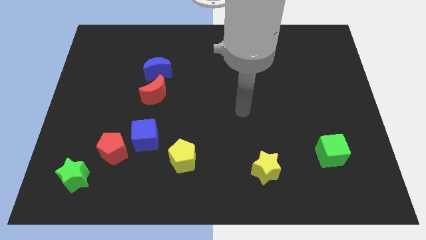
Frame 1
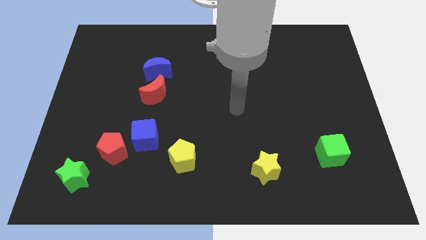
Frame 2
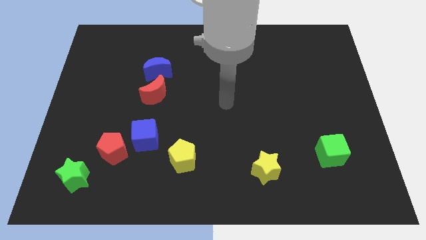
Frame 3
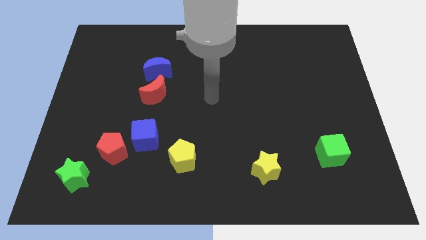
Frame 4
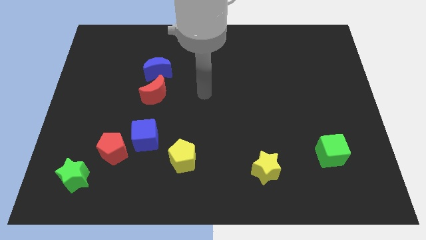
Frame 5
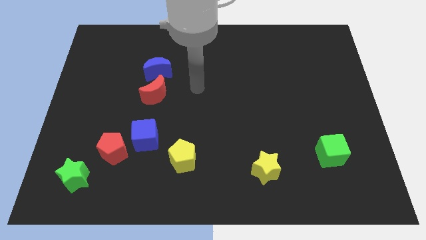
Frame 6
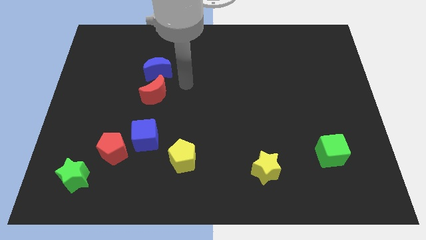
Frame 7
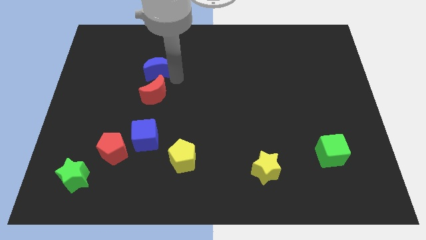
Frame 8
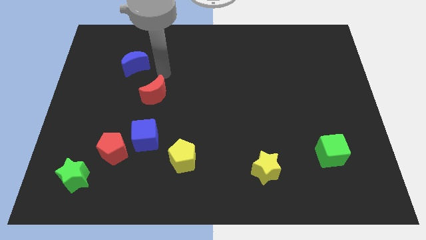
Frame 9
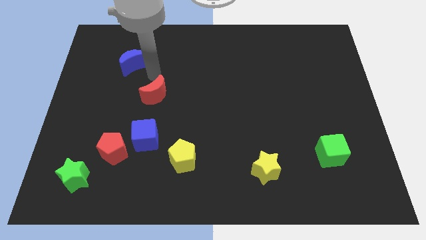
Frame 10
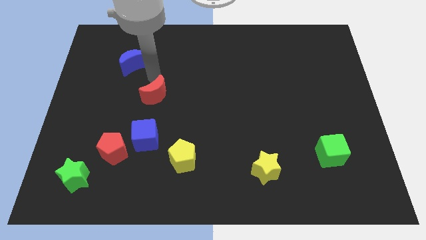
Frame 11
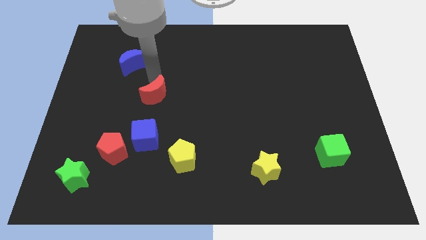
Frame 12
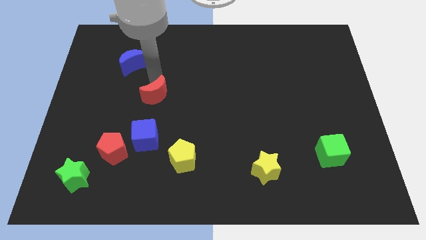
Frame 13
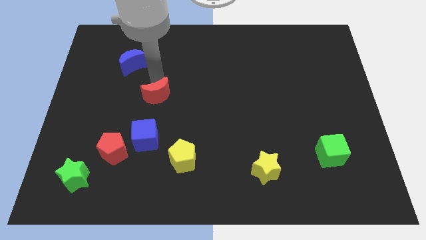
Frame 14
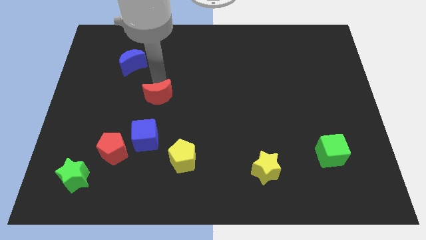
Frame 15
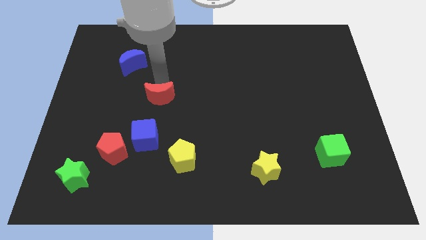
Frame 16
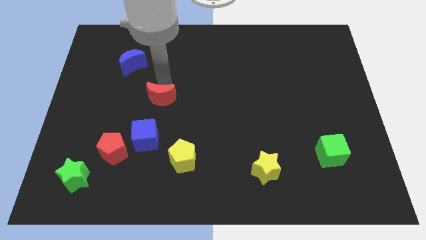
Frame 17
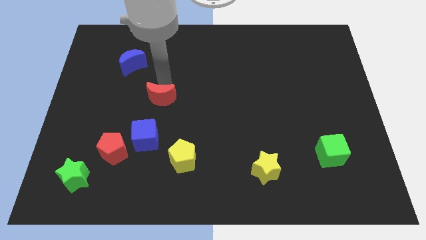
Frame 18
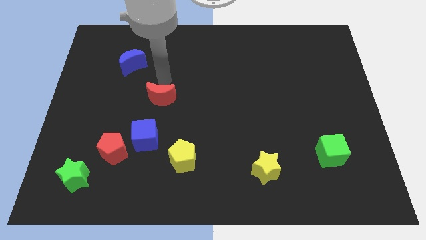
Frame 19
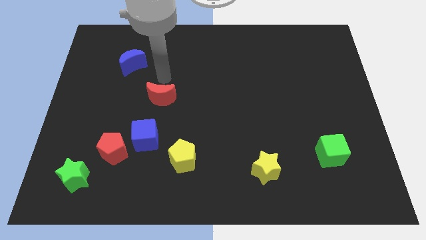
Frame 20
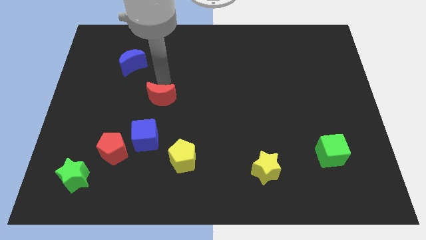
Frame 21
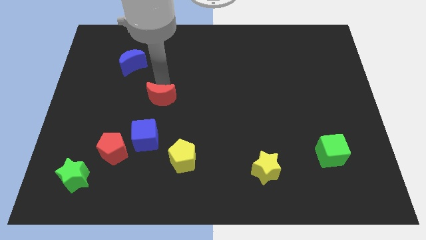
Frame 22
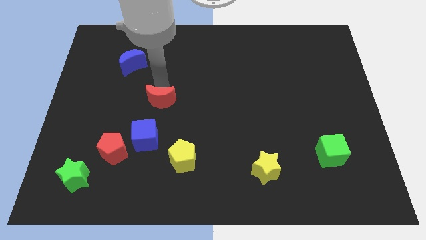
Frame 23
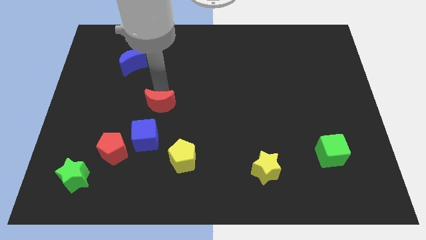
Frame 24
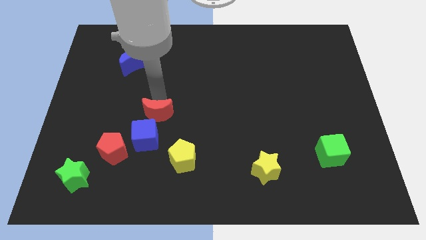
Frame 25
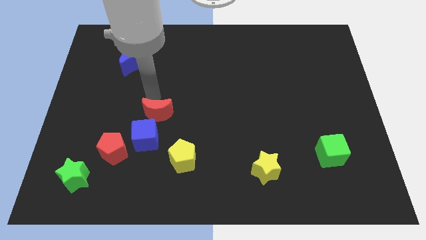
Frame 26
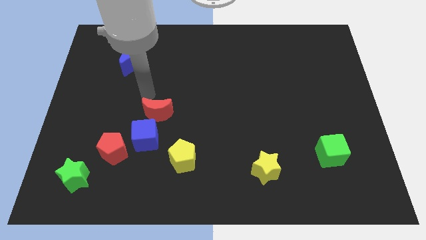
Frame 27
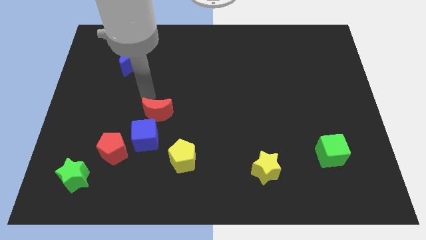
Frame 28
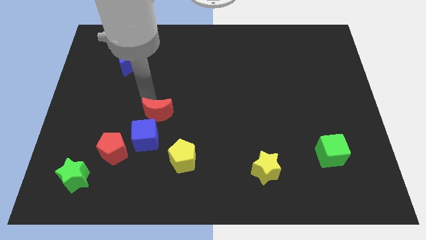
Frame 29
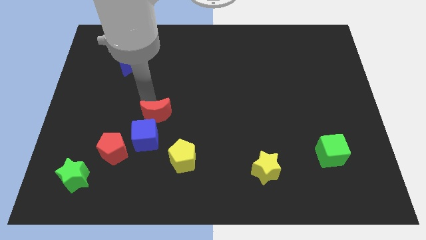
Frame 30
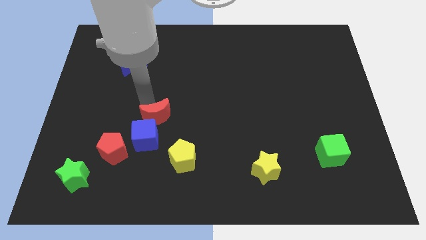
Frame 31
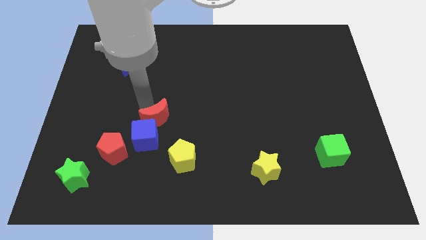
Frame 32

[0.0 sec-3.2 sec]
slide the red moon somewhat down

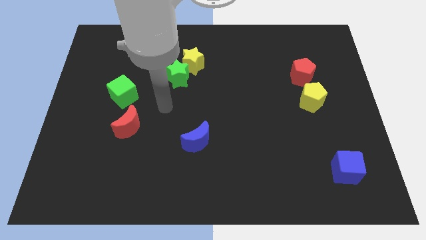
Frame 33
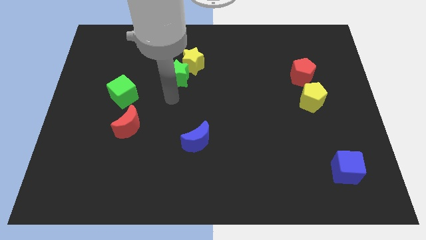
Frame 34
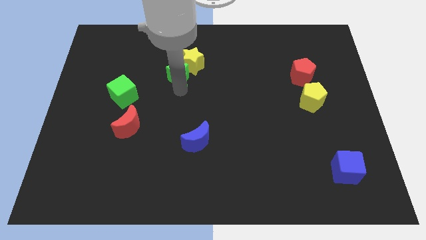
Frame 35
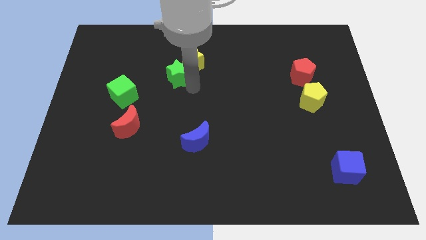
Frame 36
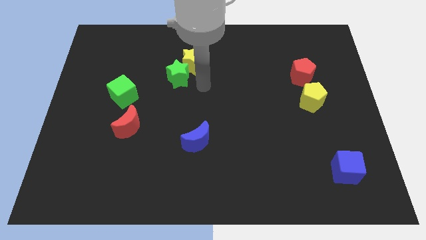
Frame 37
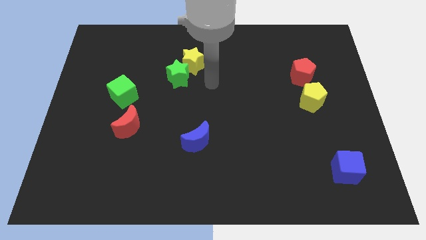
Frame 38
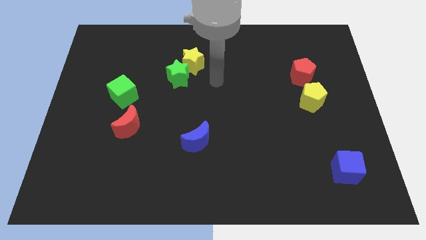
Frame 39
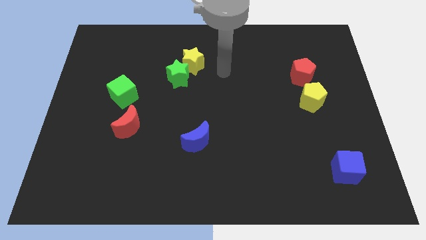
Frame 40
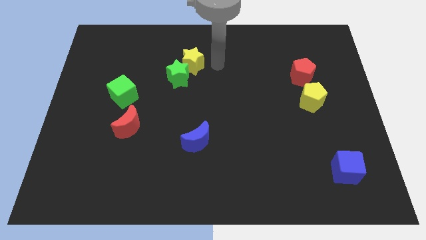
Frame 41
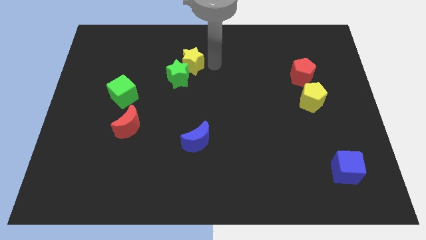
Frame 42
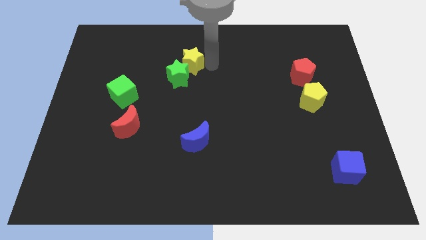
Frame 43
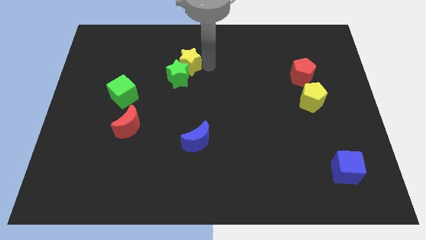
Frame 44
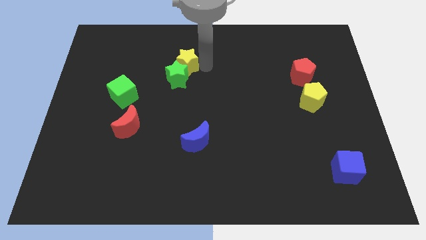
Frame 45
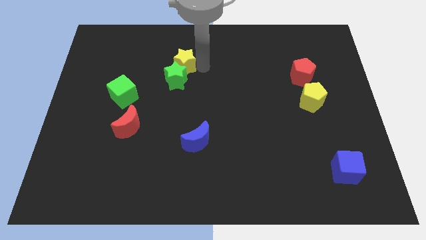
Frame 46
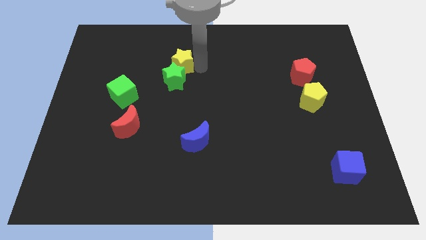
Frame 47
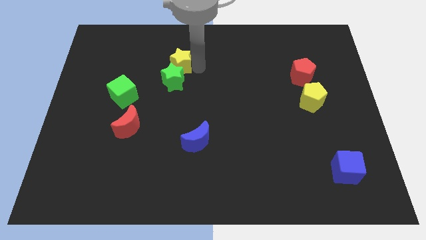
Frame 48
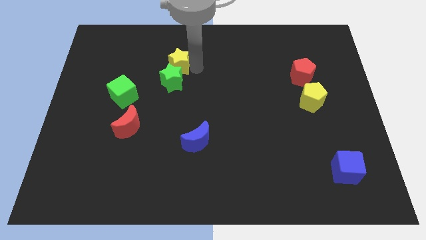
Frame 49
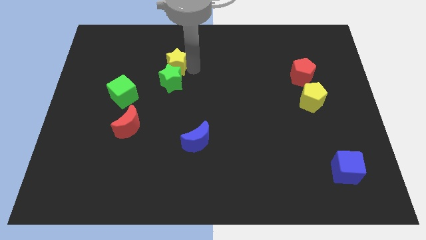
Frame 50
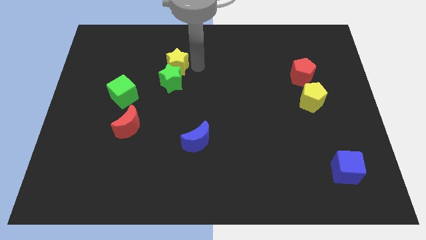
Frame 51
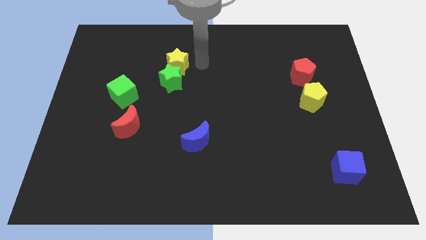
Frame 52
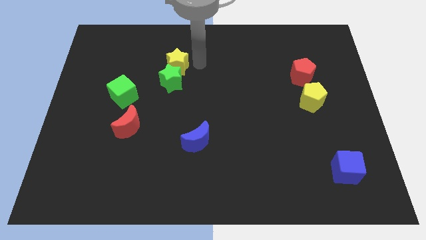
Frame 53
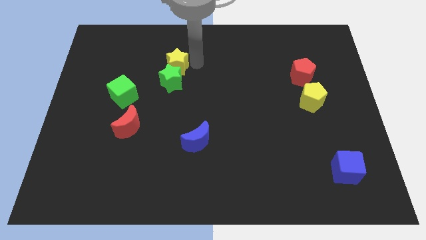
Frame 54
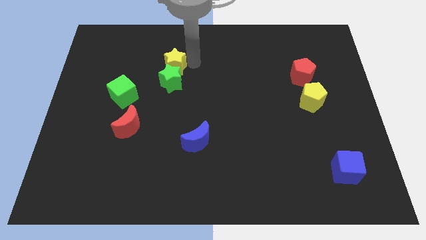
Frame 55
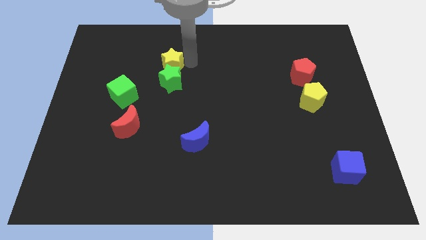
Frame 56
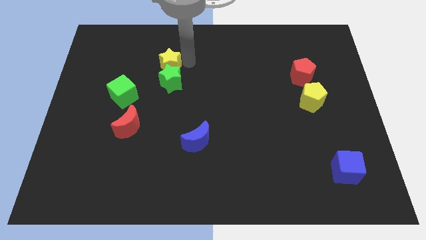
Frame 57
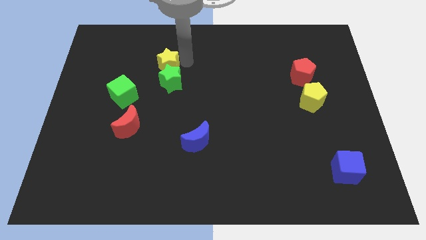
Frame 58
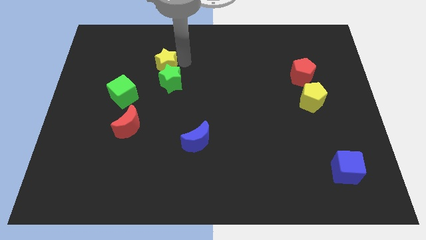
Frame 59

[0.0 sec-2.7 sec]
slightly push the yellow star to the left

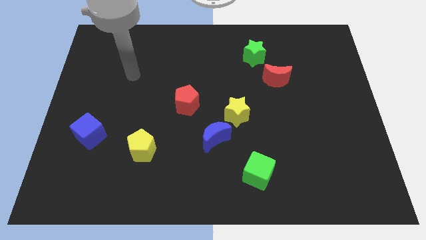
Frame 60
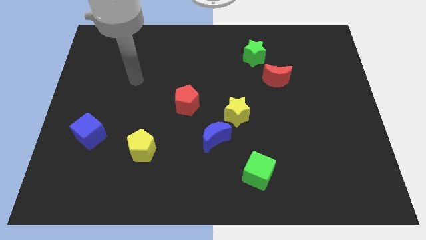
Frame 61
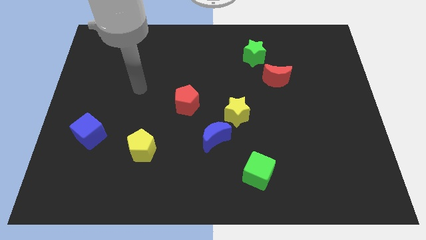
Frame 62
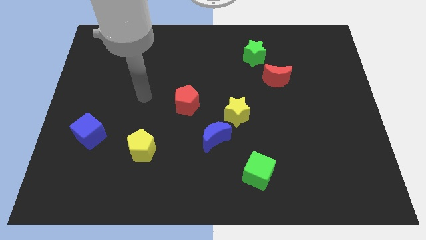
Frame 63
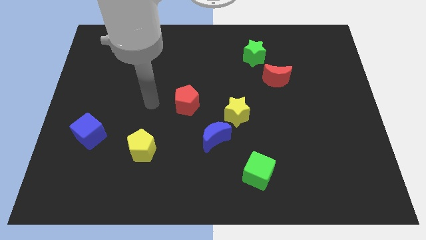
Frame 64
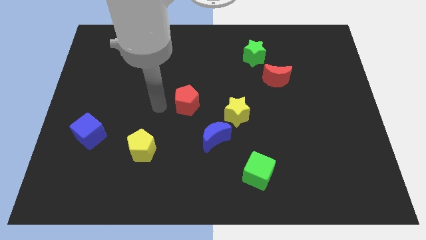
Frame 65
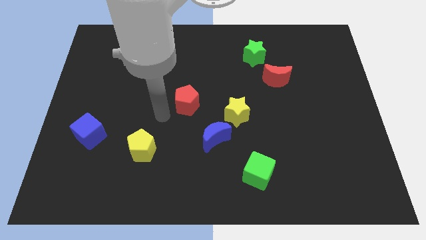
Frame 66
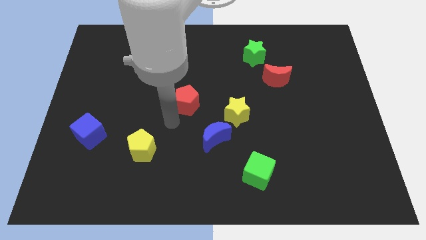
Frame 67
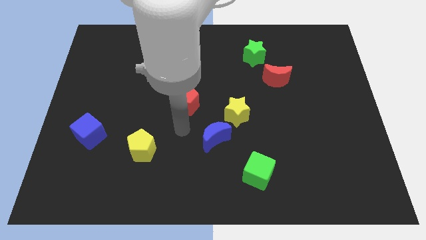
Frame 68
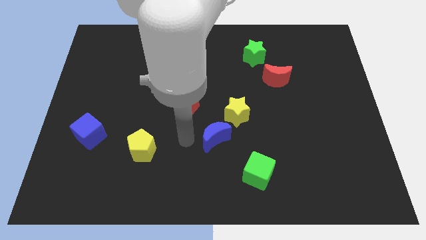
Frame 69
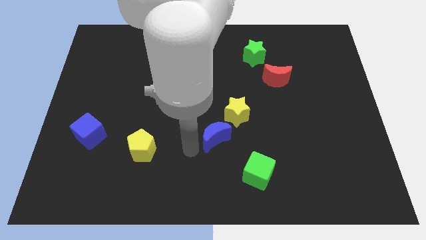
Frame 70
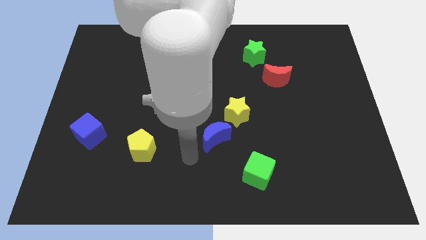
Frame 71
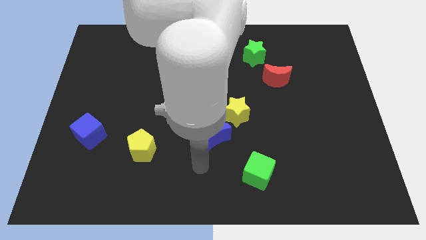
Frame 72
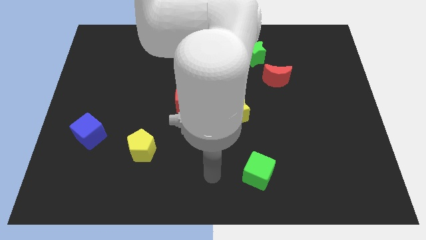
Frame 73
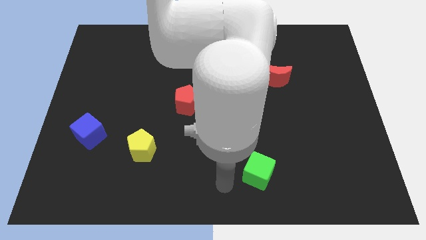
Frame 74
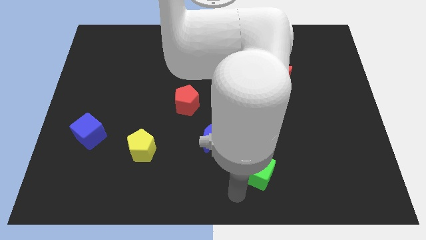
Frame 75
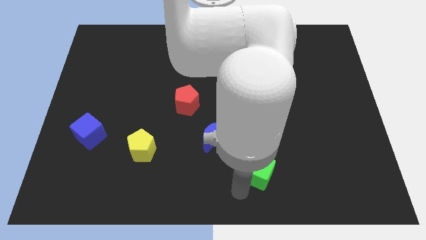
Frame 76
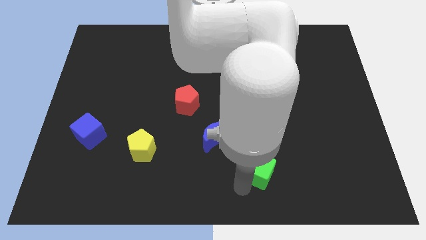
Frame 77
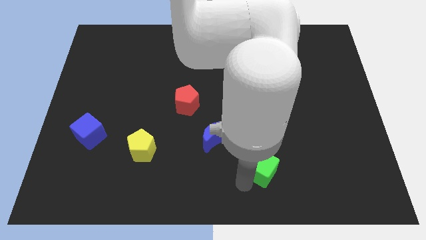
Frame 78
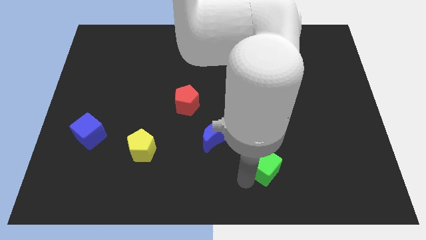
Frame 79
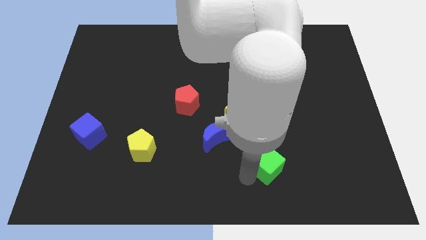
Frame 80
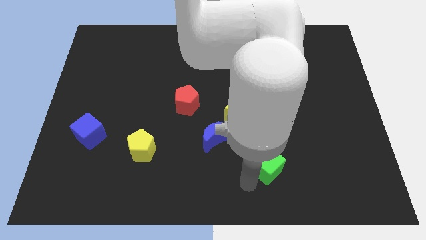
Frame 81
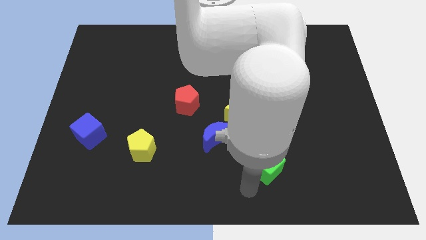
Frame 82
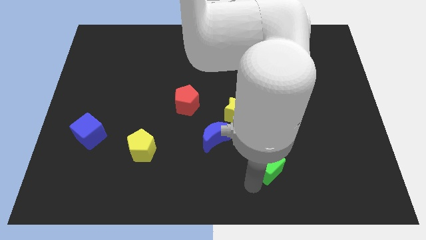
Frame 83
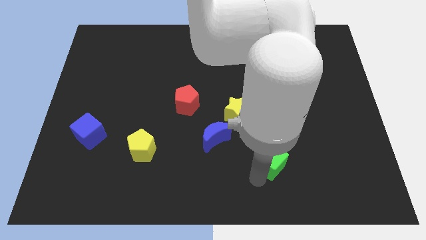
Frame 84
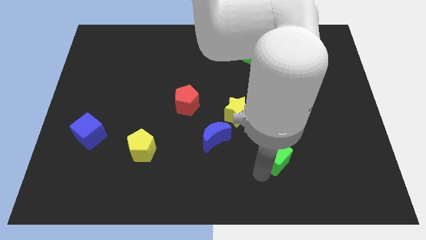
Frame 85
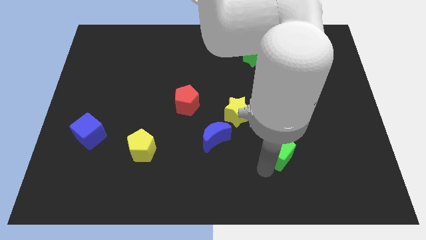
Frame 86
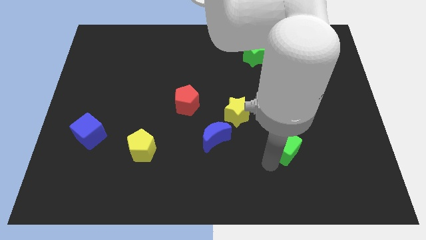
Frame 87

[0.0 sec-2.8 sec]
slightly slide the green cube upwards and right
